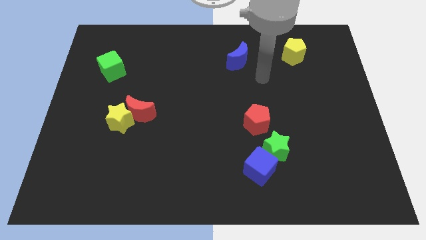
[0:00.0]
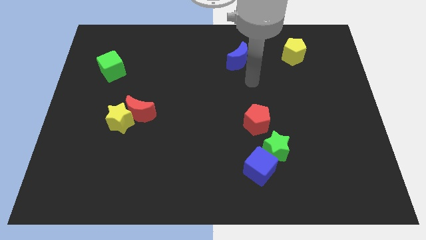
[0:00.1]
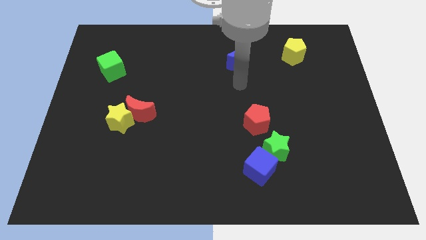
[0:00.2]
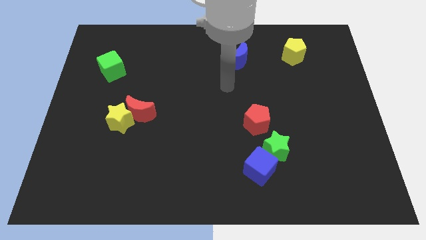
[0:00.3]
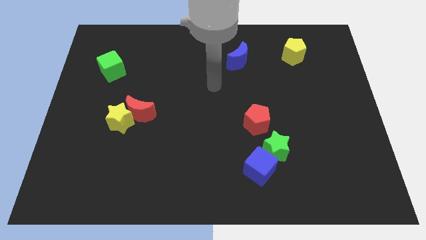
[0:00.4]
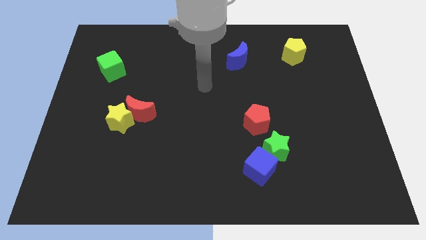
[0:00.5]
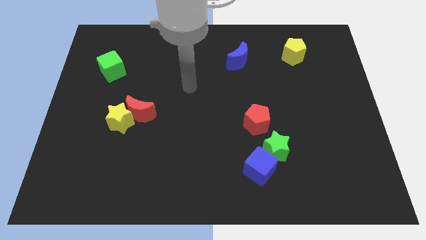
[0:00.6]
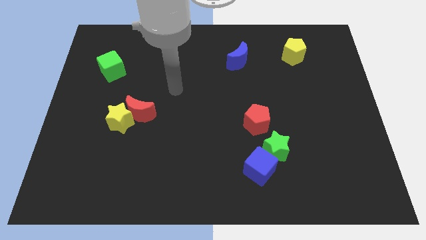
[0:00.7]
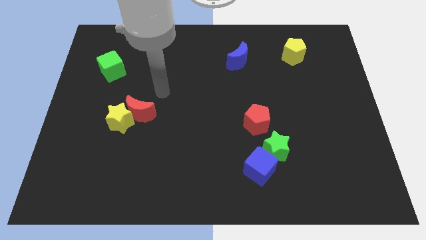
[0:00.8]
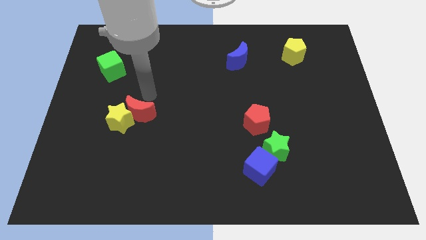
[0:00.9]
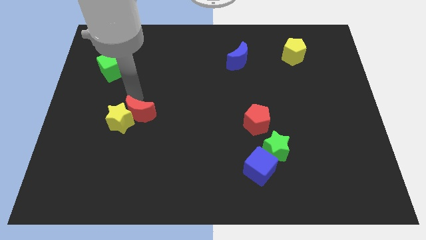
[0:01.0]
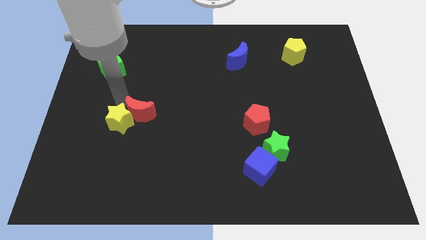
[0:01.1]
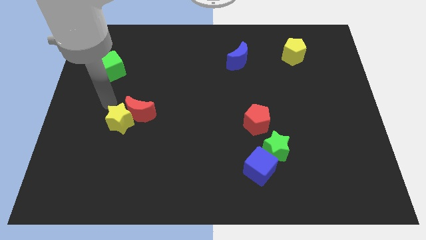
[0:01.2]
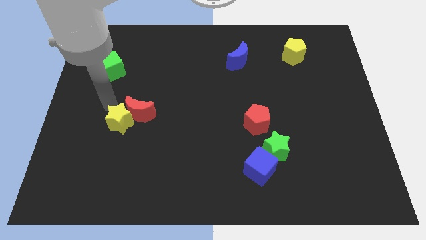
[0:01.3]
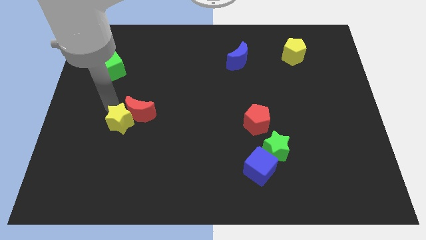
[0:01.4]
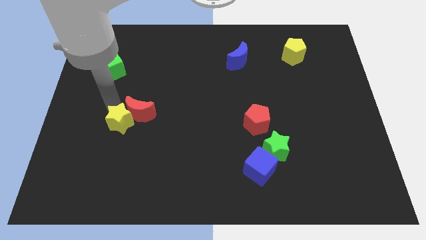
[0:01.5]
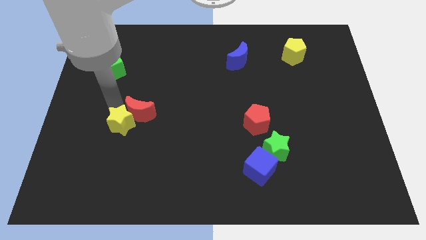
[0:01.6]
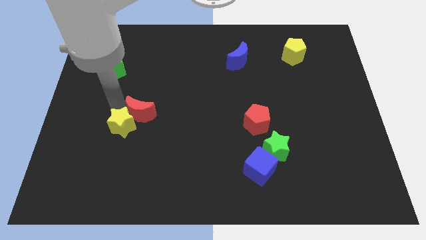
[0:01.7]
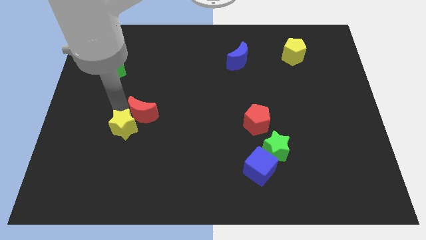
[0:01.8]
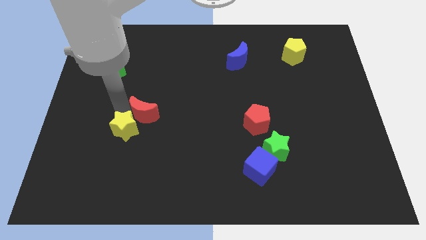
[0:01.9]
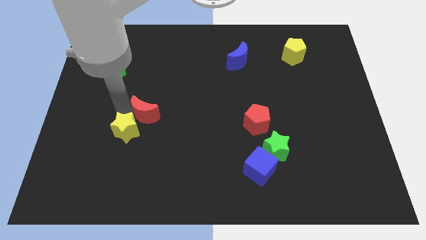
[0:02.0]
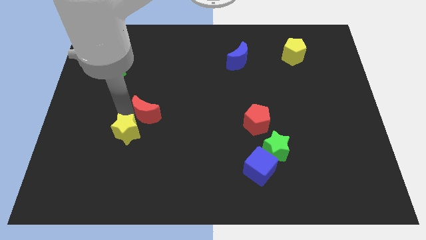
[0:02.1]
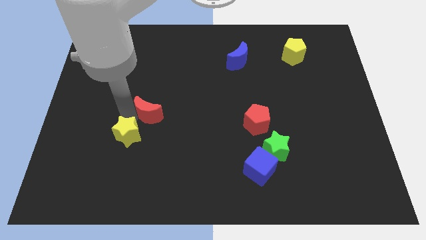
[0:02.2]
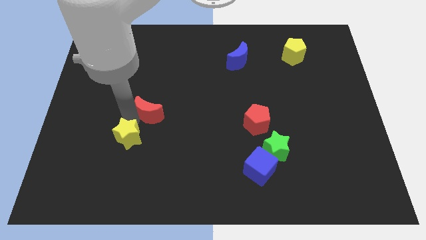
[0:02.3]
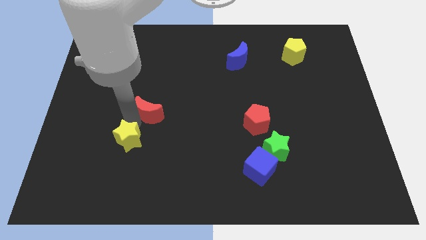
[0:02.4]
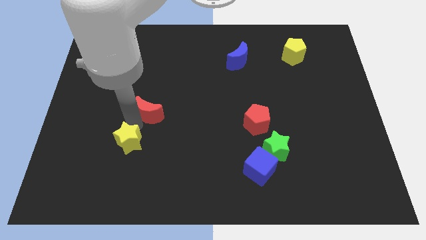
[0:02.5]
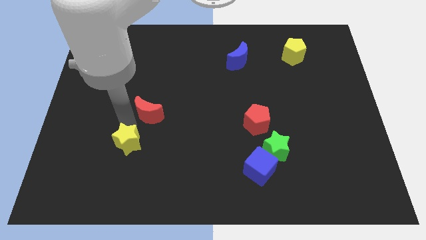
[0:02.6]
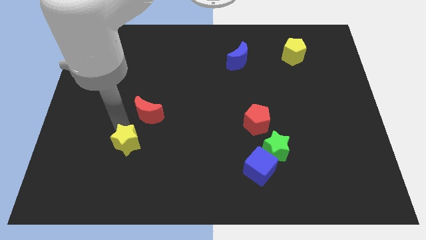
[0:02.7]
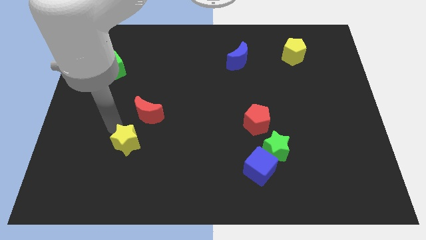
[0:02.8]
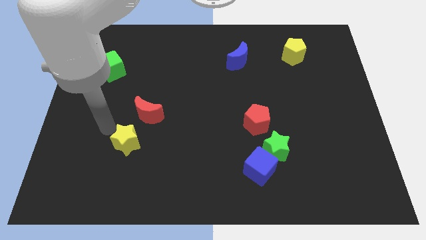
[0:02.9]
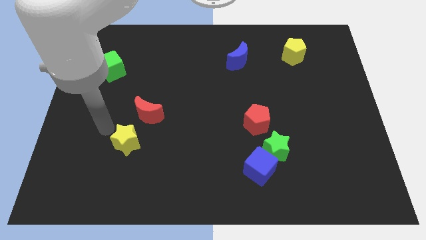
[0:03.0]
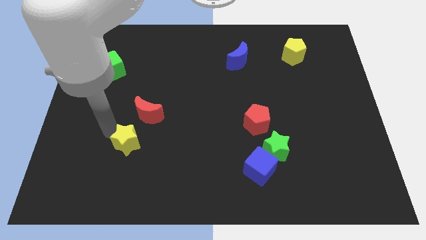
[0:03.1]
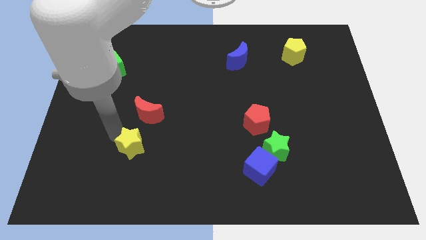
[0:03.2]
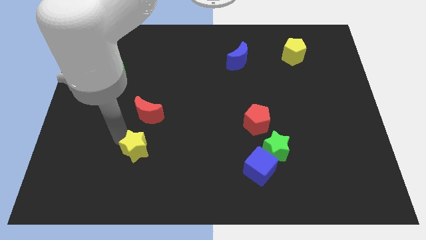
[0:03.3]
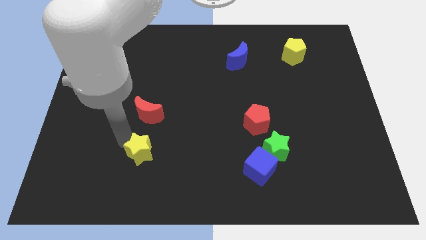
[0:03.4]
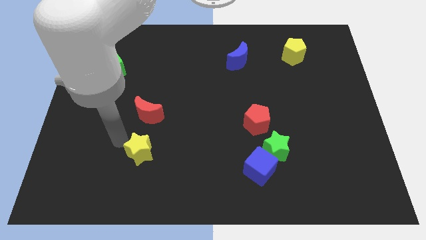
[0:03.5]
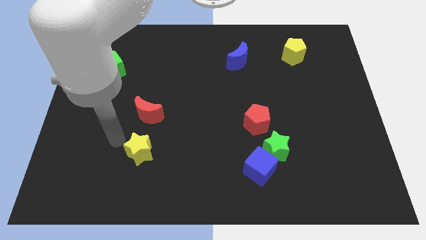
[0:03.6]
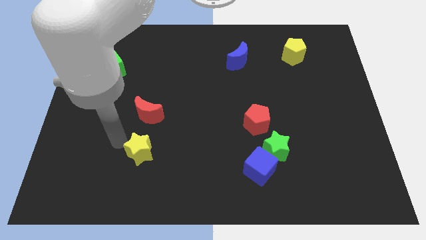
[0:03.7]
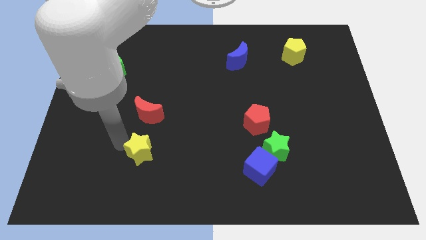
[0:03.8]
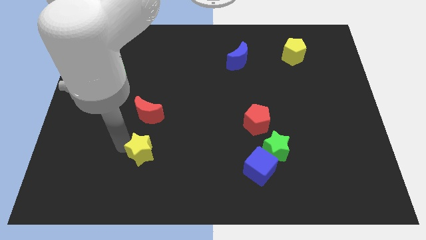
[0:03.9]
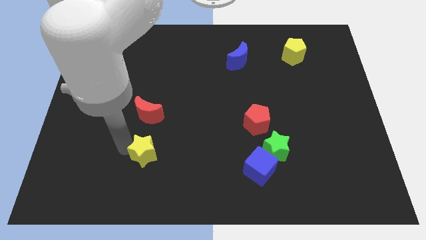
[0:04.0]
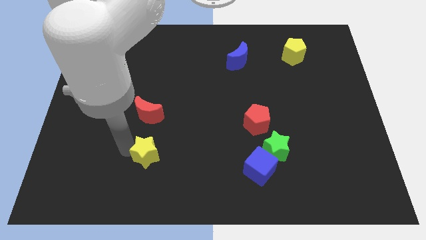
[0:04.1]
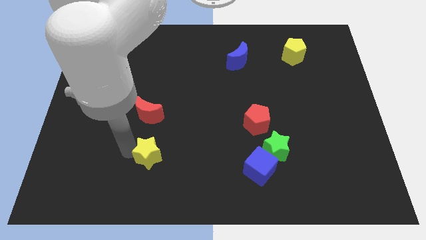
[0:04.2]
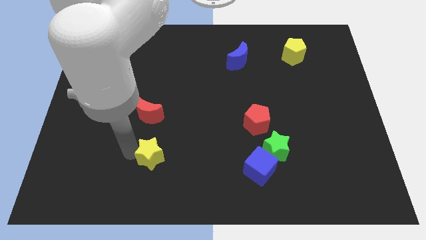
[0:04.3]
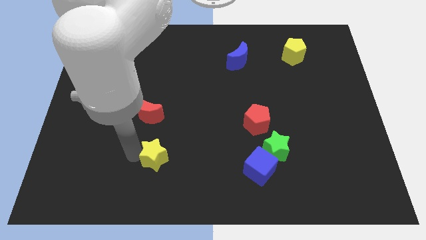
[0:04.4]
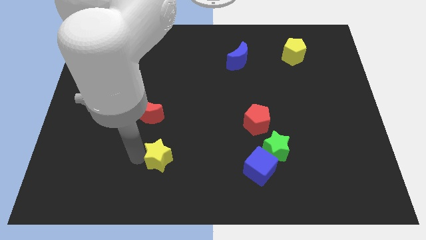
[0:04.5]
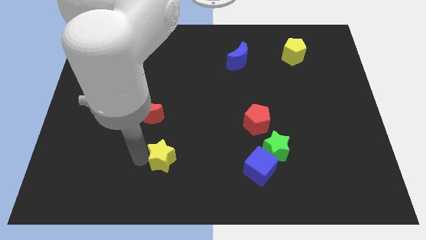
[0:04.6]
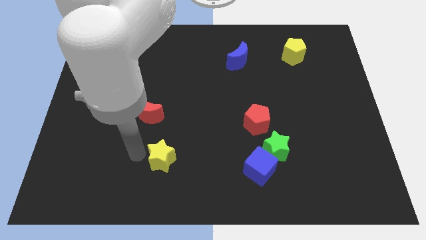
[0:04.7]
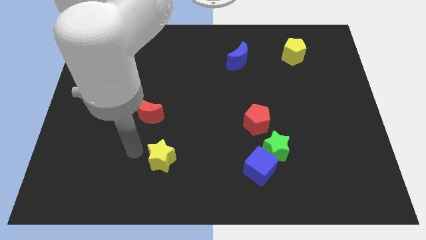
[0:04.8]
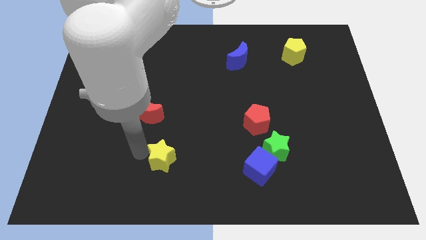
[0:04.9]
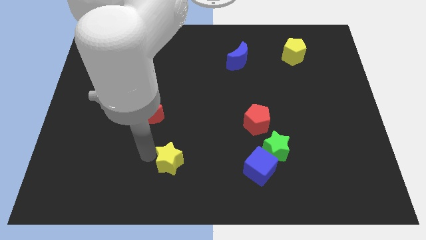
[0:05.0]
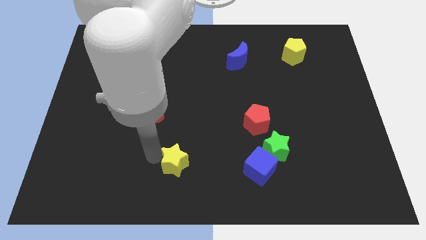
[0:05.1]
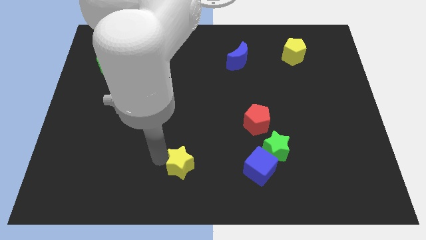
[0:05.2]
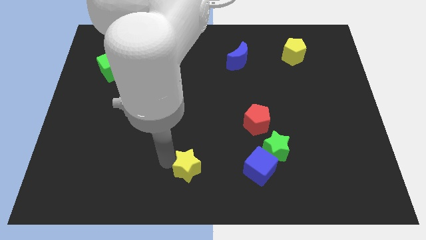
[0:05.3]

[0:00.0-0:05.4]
slide the yellow star just left of the blue cube

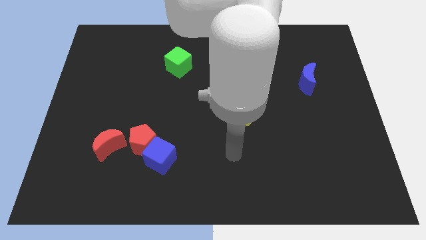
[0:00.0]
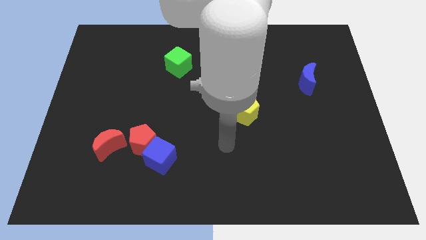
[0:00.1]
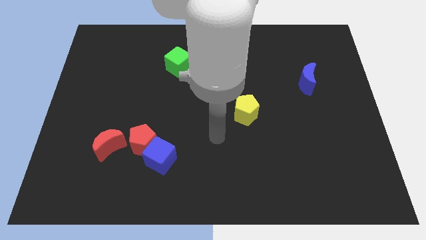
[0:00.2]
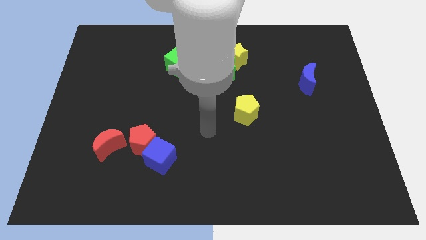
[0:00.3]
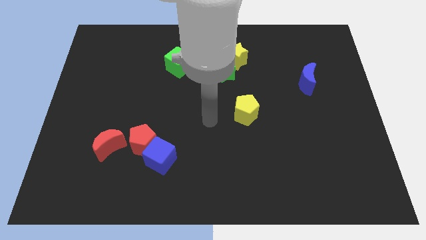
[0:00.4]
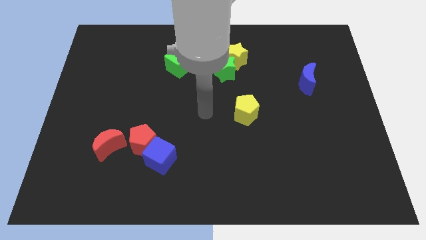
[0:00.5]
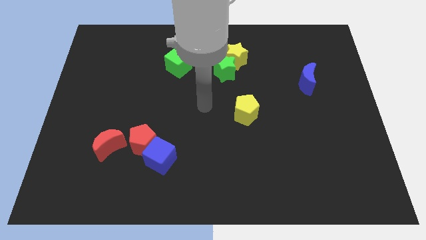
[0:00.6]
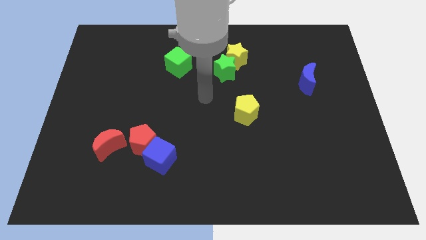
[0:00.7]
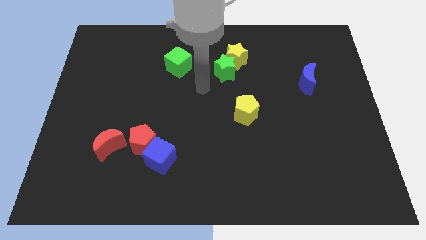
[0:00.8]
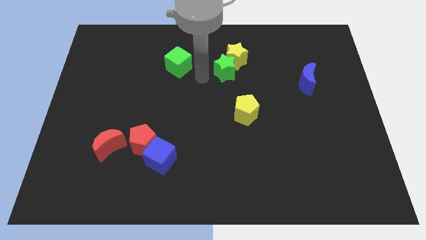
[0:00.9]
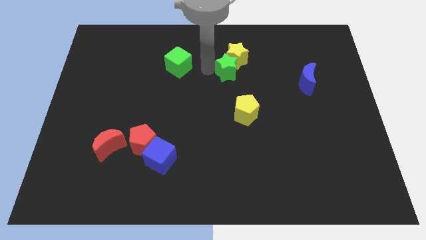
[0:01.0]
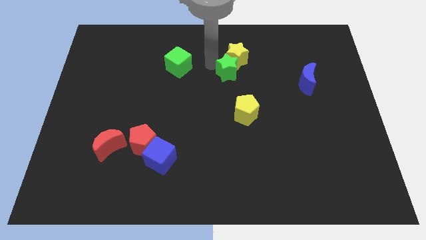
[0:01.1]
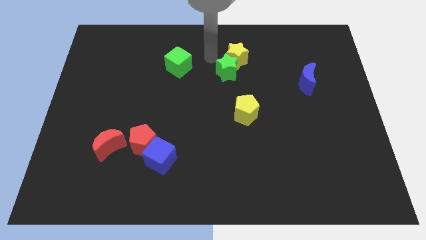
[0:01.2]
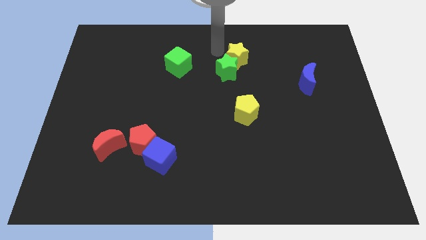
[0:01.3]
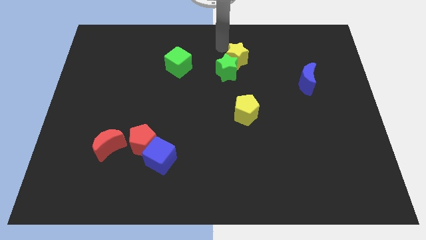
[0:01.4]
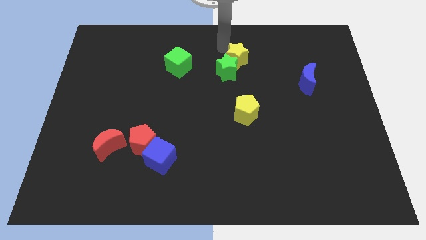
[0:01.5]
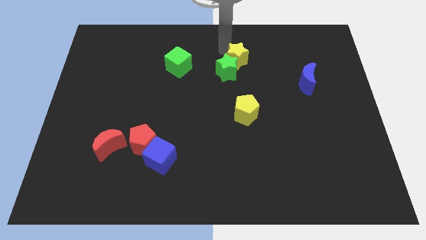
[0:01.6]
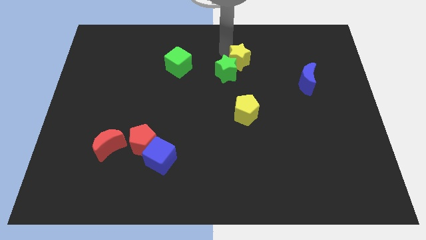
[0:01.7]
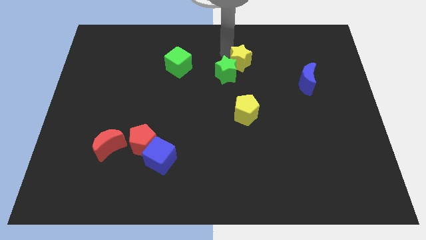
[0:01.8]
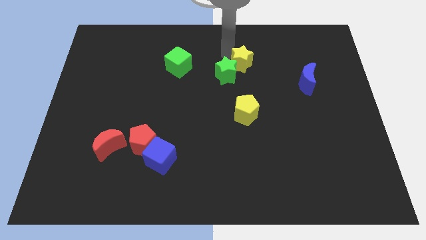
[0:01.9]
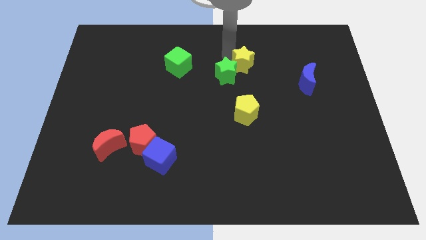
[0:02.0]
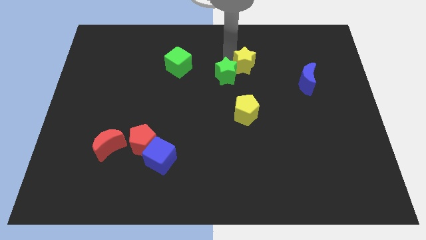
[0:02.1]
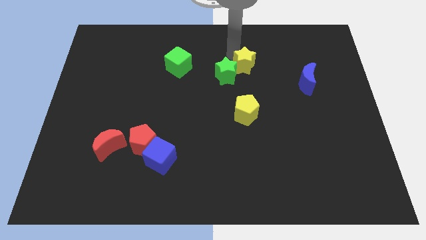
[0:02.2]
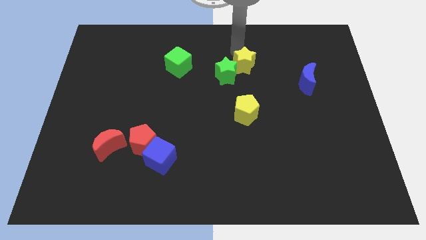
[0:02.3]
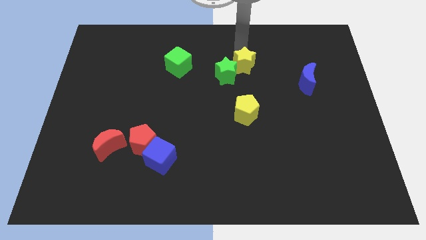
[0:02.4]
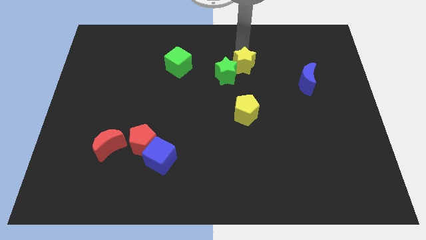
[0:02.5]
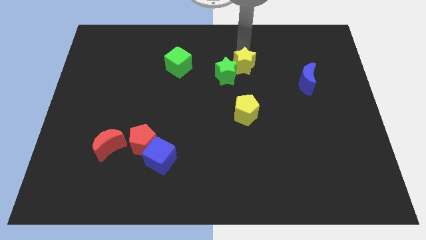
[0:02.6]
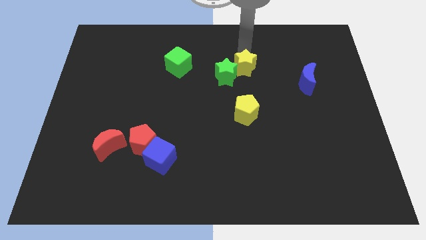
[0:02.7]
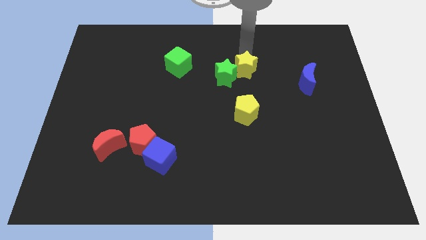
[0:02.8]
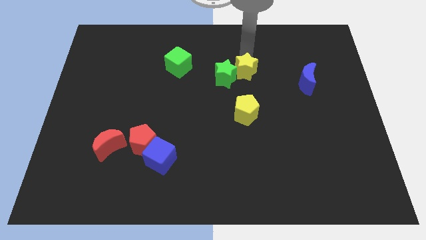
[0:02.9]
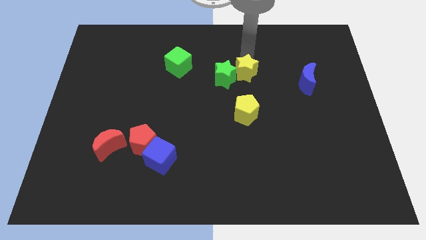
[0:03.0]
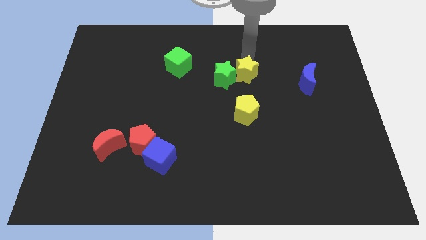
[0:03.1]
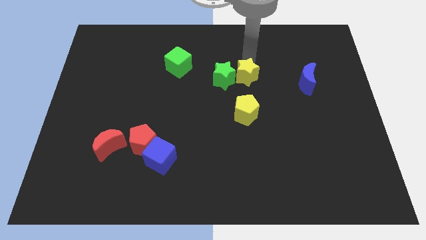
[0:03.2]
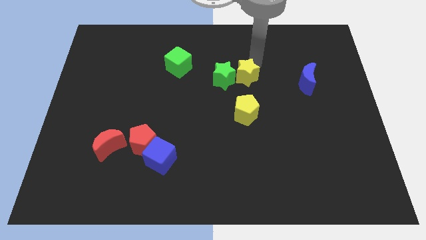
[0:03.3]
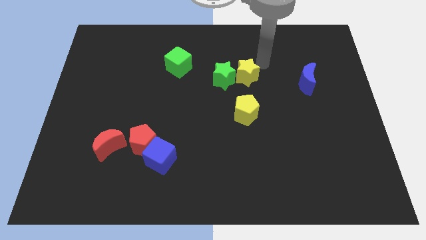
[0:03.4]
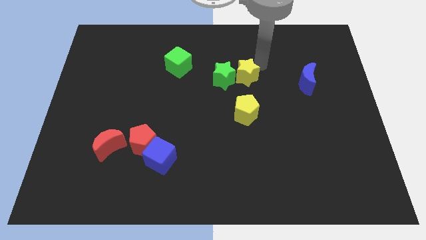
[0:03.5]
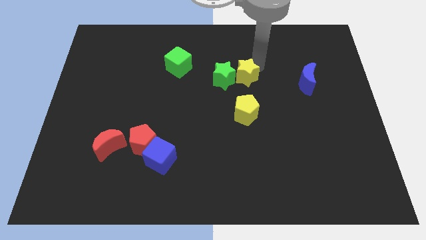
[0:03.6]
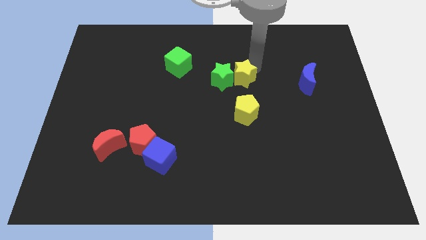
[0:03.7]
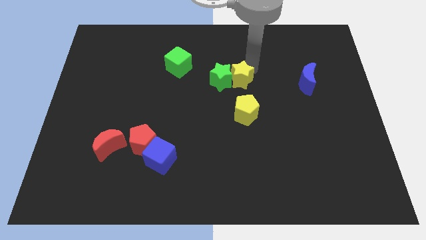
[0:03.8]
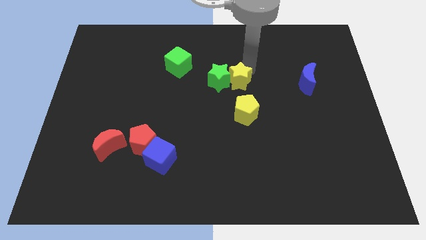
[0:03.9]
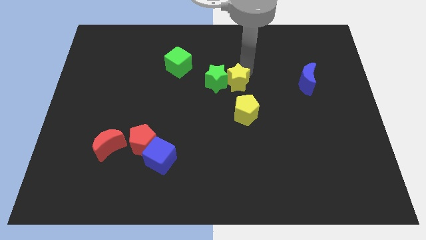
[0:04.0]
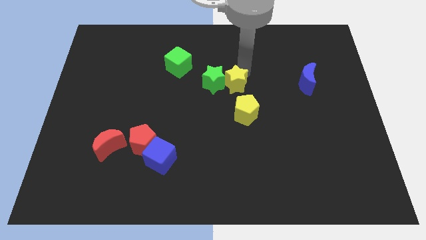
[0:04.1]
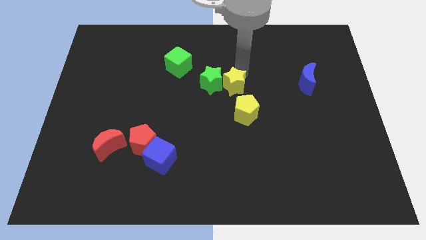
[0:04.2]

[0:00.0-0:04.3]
move the yellow star diagonally up and to the left of the yellow pentagon
